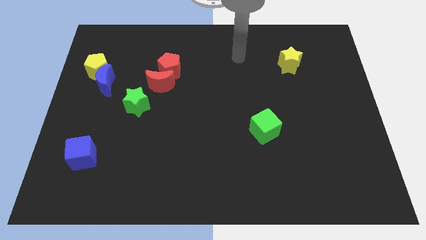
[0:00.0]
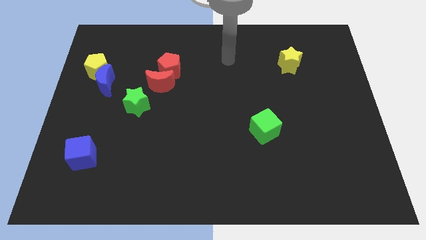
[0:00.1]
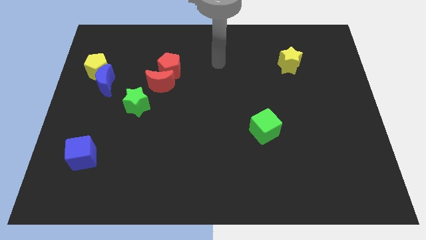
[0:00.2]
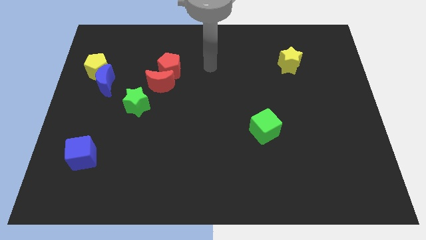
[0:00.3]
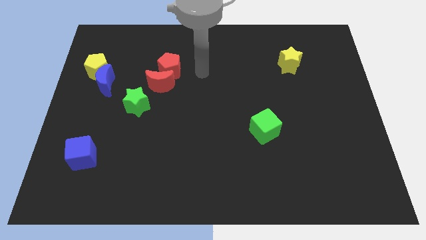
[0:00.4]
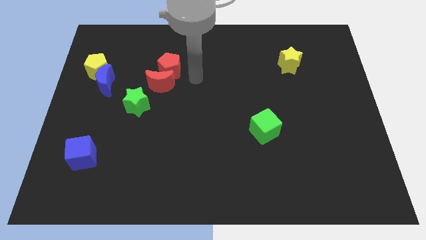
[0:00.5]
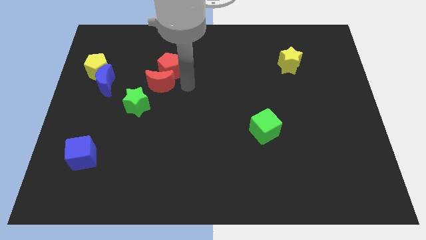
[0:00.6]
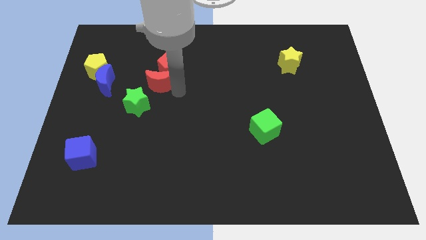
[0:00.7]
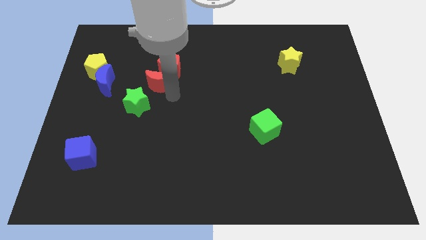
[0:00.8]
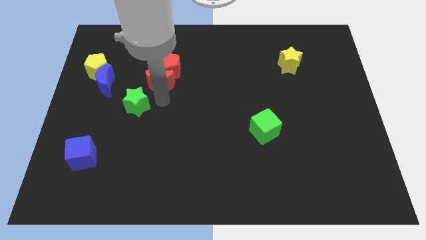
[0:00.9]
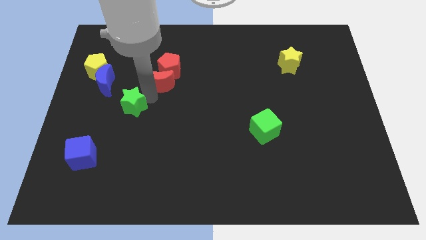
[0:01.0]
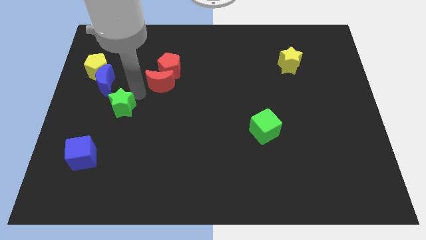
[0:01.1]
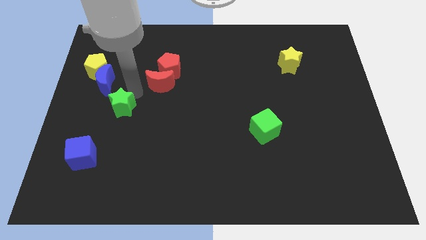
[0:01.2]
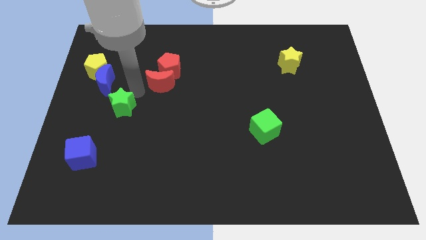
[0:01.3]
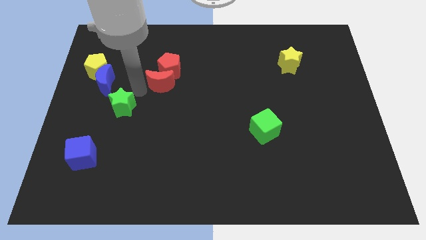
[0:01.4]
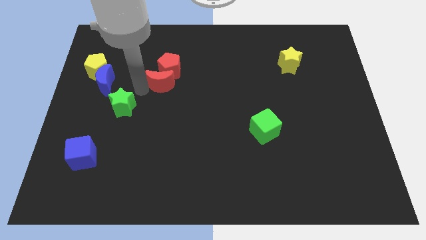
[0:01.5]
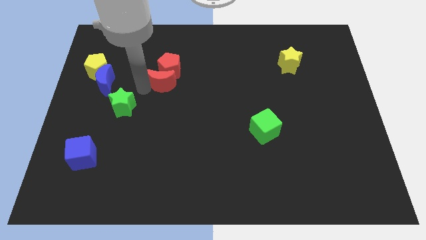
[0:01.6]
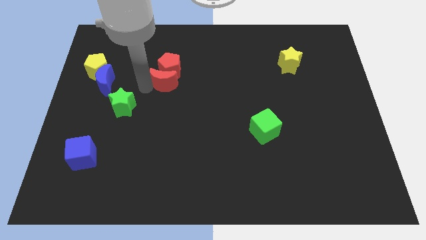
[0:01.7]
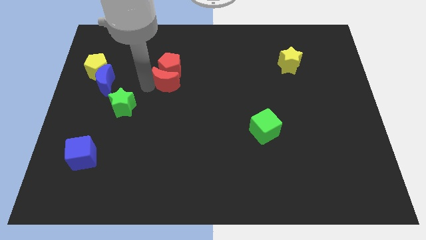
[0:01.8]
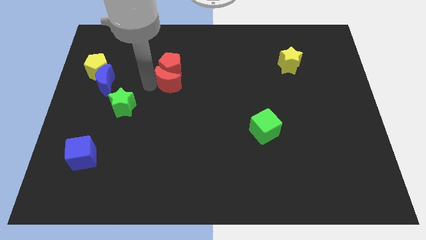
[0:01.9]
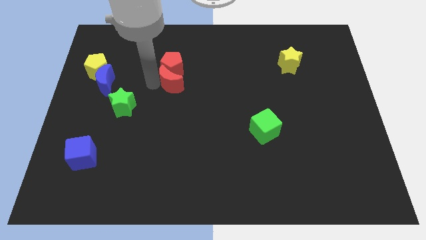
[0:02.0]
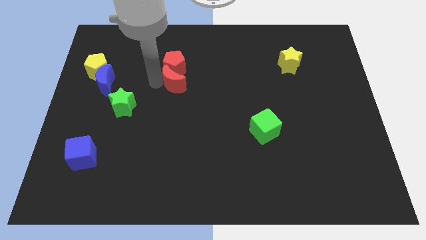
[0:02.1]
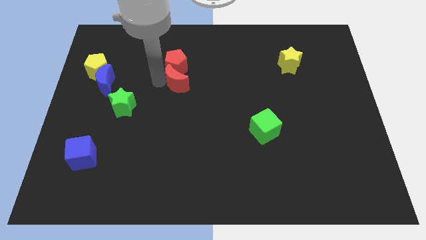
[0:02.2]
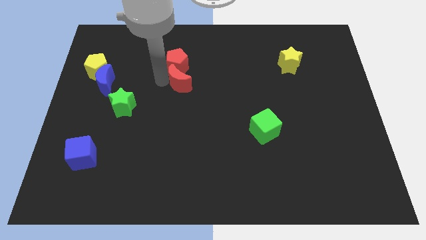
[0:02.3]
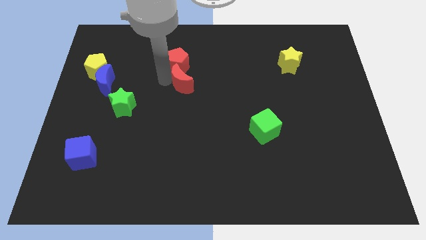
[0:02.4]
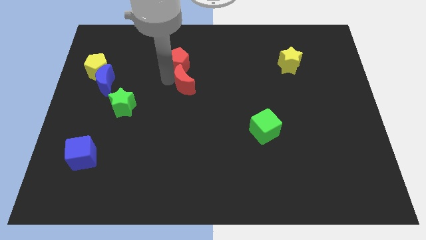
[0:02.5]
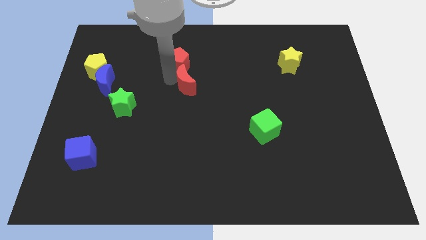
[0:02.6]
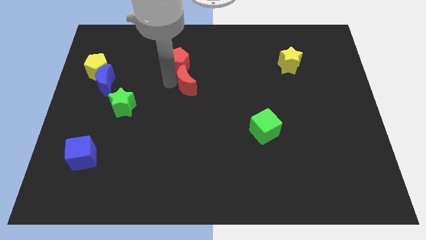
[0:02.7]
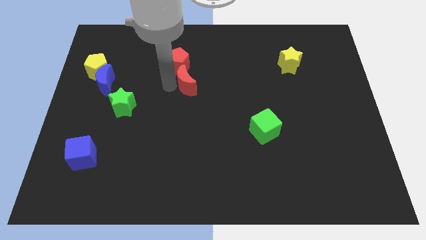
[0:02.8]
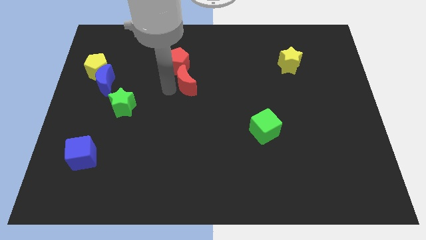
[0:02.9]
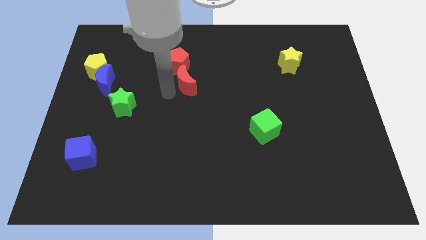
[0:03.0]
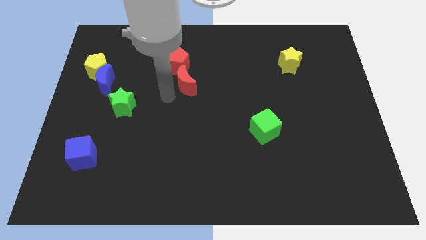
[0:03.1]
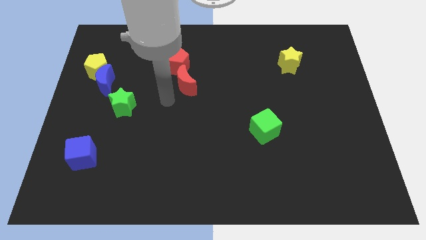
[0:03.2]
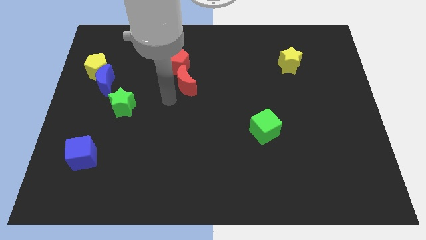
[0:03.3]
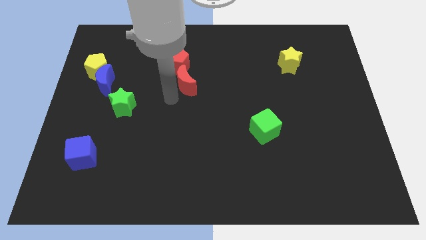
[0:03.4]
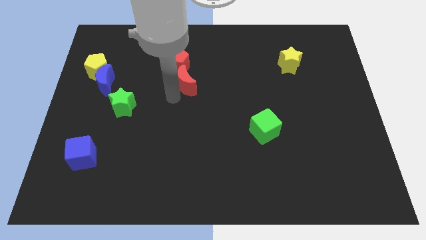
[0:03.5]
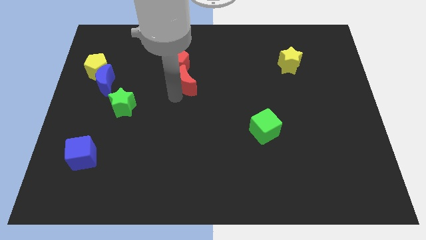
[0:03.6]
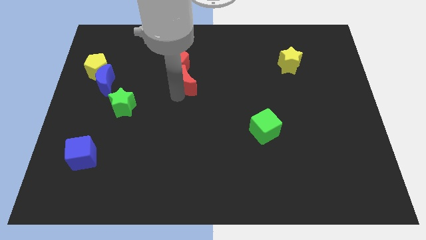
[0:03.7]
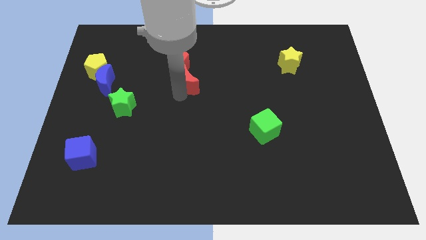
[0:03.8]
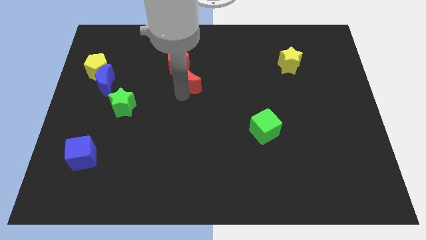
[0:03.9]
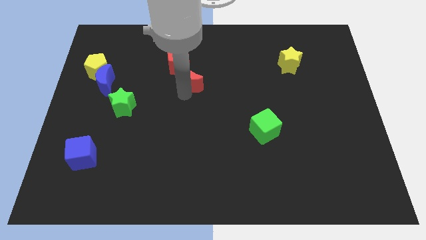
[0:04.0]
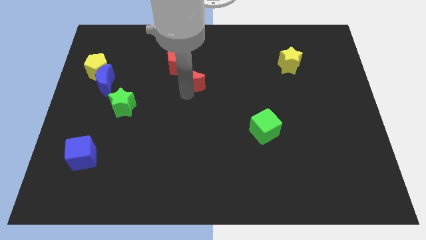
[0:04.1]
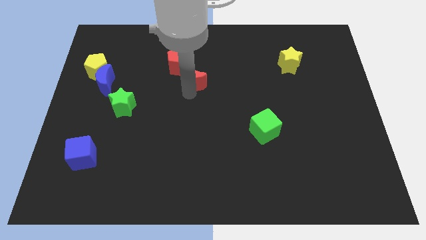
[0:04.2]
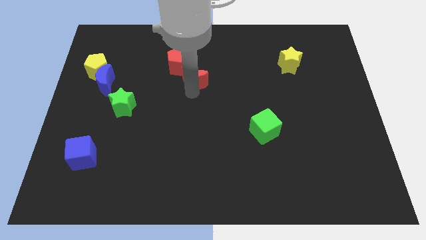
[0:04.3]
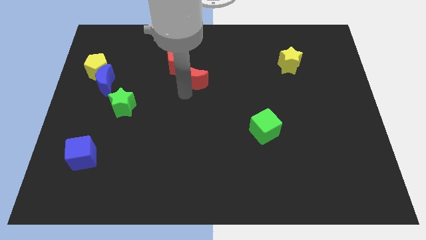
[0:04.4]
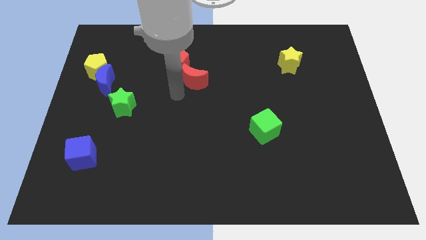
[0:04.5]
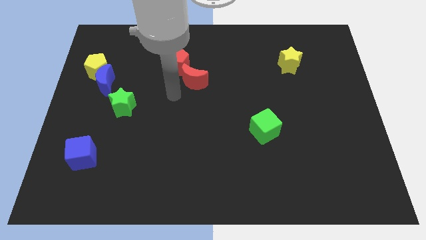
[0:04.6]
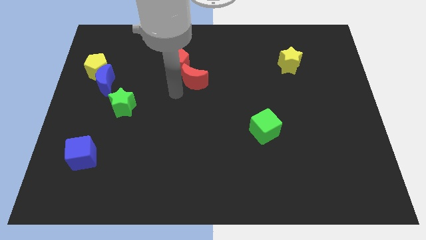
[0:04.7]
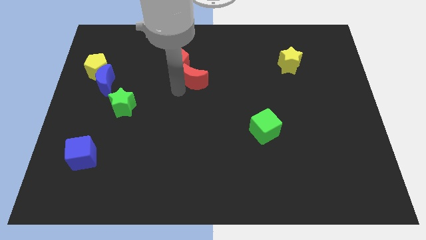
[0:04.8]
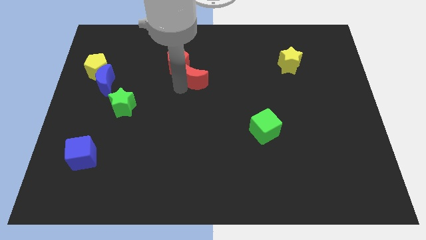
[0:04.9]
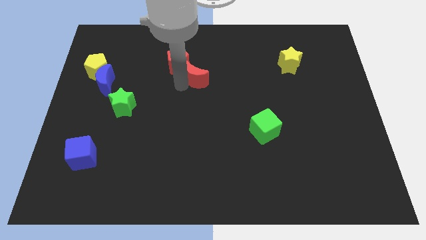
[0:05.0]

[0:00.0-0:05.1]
move the red moon to the right of the red pentagon

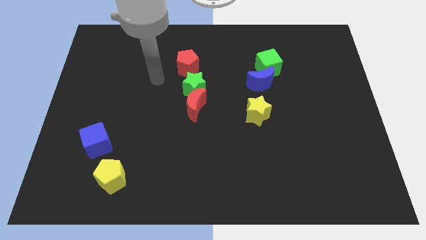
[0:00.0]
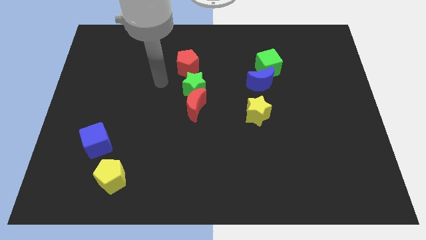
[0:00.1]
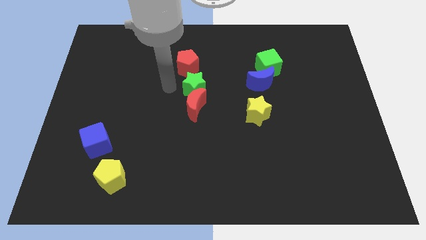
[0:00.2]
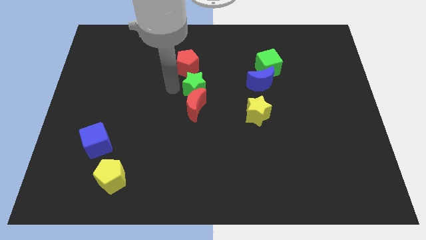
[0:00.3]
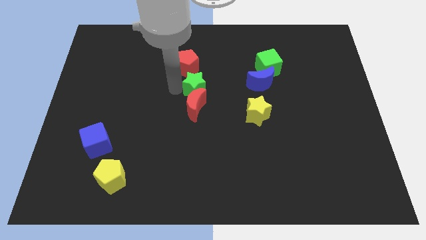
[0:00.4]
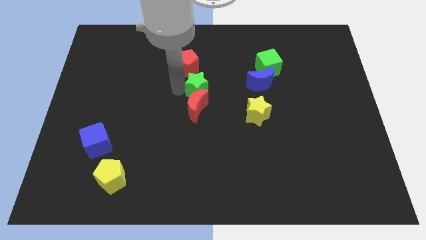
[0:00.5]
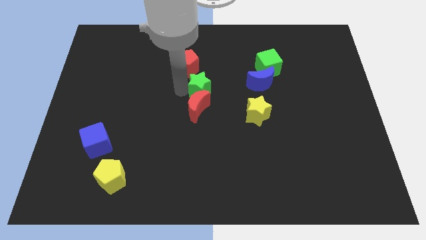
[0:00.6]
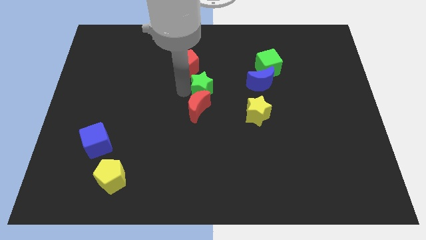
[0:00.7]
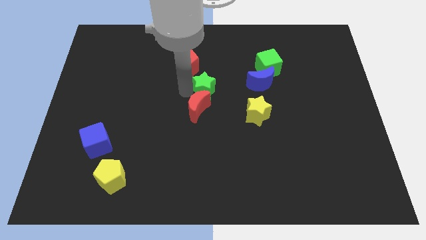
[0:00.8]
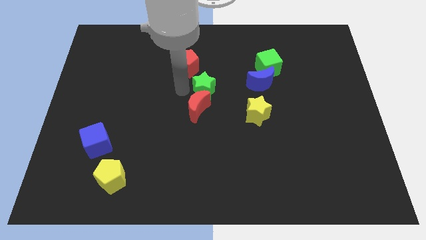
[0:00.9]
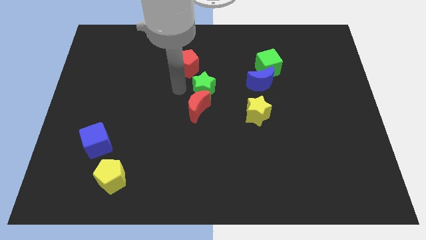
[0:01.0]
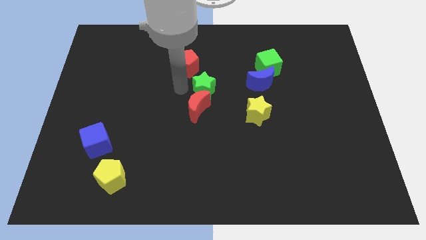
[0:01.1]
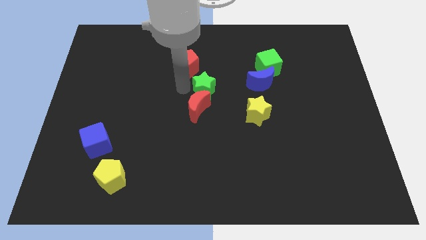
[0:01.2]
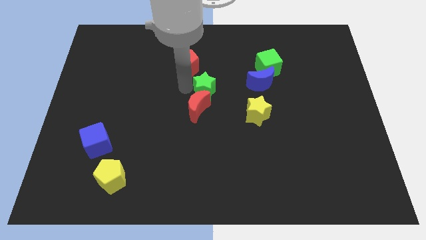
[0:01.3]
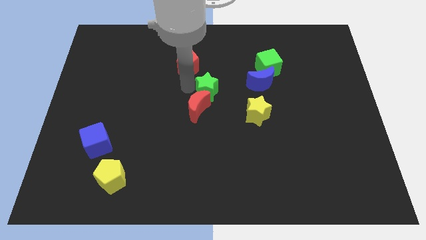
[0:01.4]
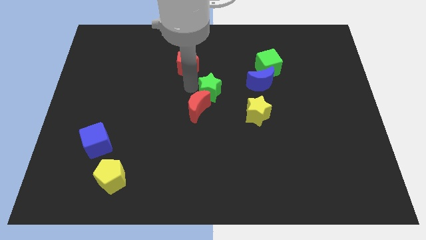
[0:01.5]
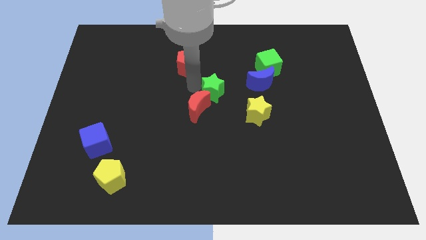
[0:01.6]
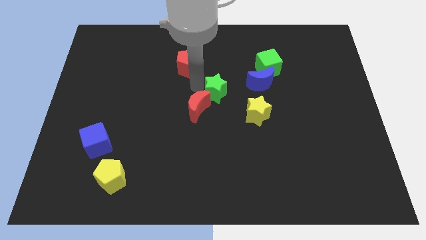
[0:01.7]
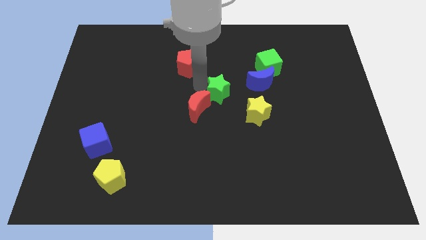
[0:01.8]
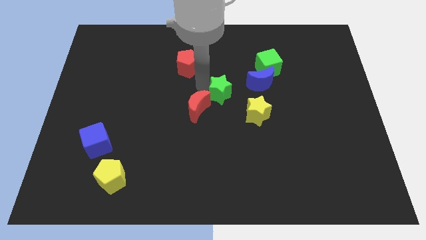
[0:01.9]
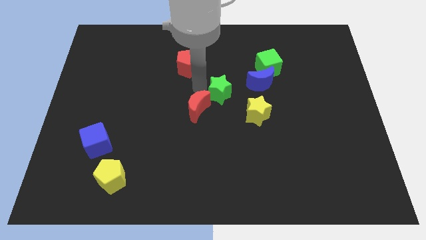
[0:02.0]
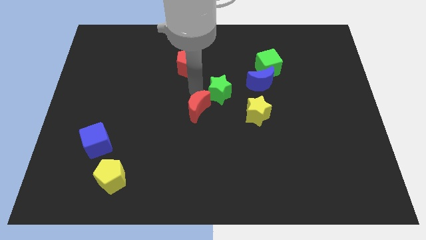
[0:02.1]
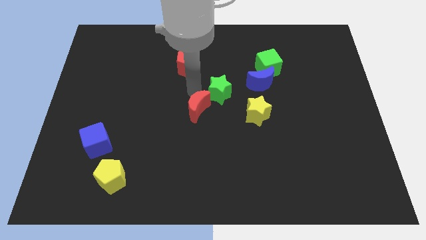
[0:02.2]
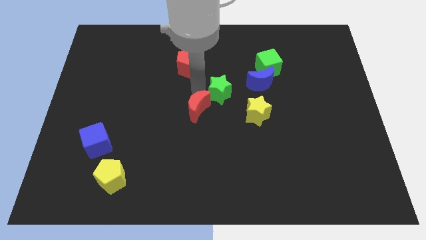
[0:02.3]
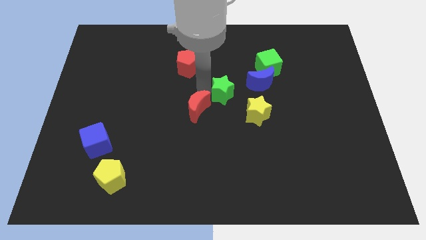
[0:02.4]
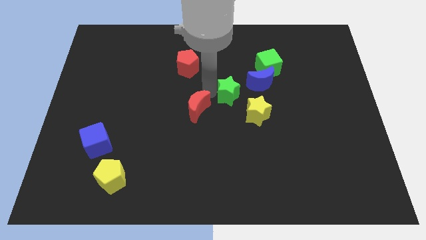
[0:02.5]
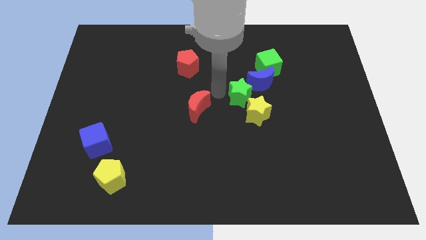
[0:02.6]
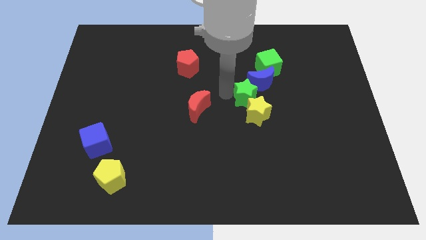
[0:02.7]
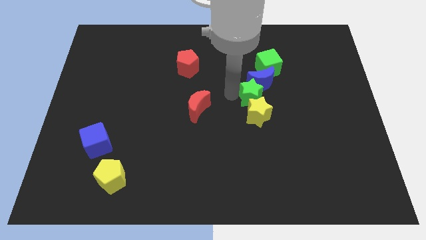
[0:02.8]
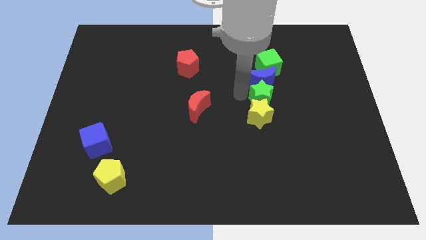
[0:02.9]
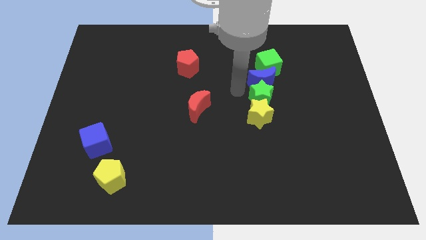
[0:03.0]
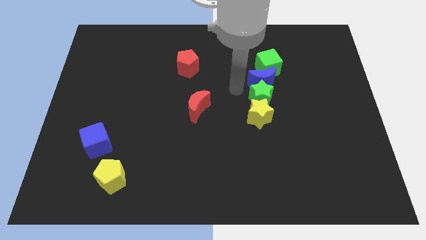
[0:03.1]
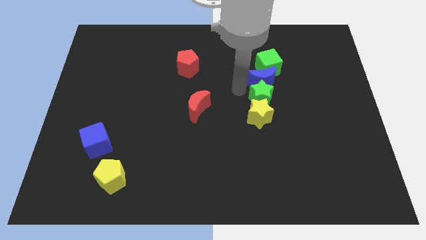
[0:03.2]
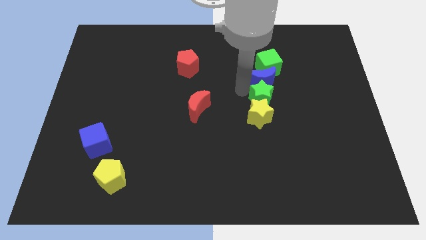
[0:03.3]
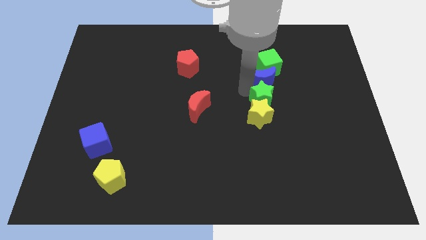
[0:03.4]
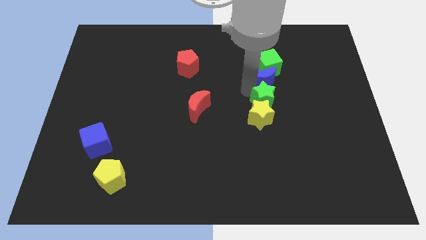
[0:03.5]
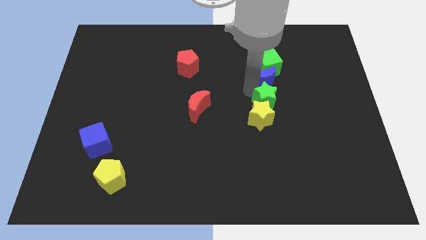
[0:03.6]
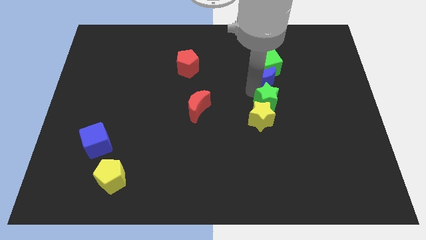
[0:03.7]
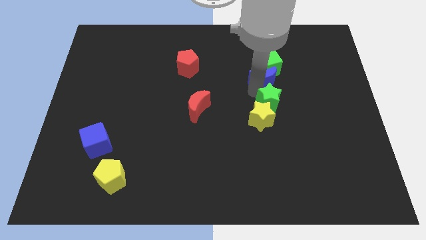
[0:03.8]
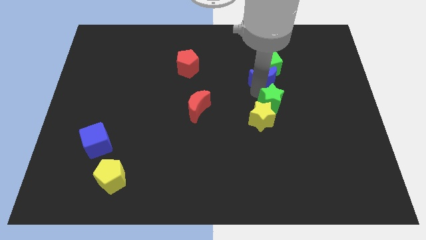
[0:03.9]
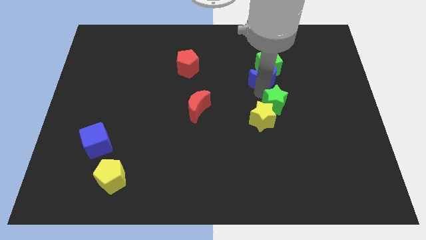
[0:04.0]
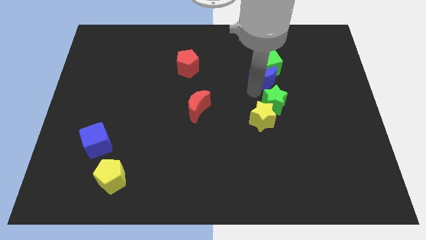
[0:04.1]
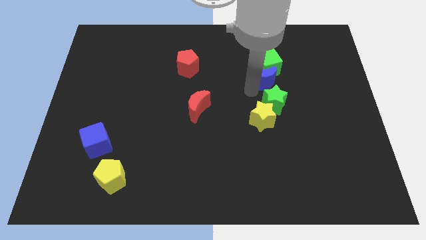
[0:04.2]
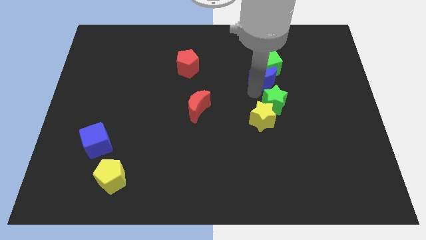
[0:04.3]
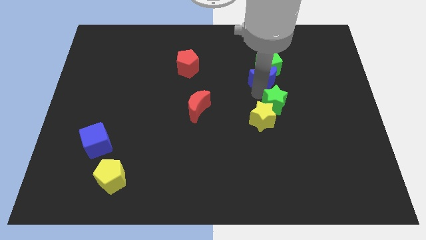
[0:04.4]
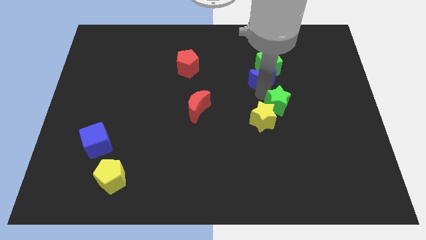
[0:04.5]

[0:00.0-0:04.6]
move the green star to the right of the yellow star
